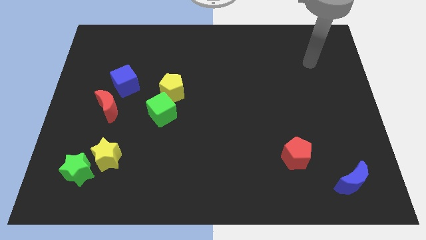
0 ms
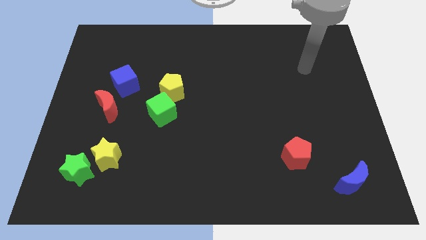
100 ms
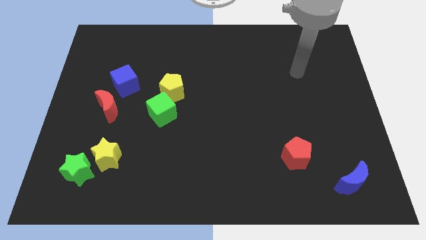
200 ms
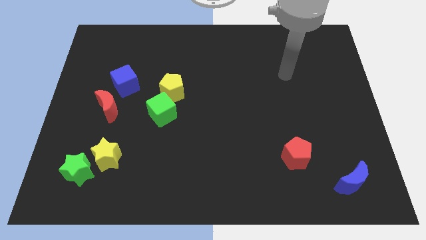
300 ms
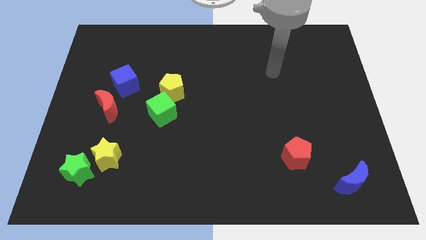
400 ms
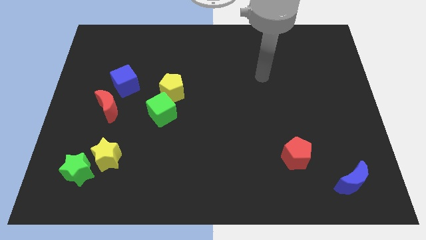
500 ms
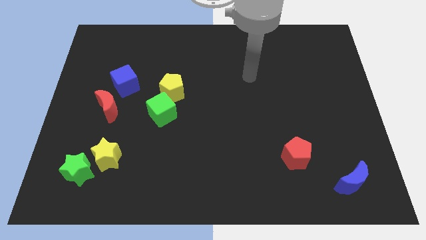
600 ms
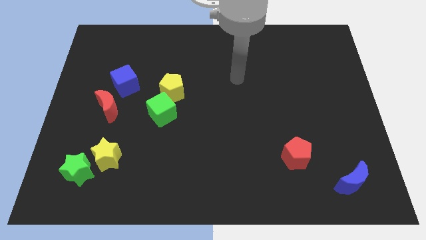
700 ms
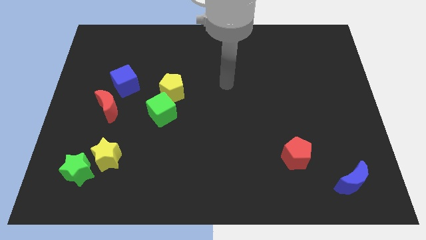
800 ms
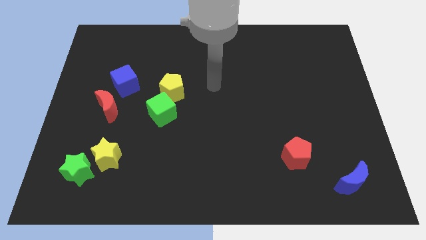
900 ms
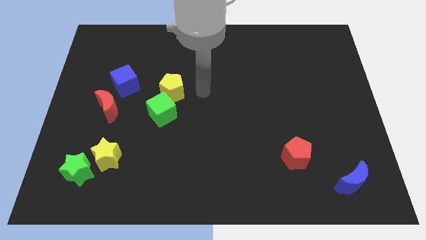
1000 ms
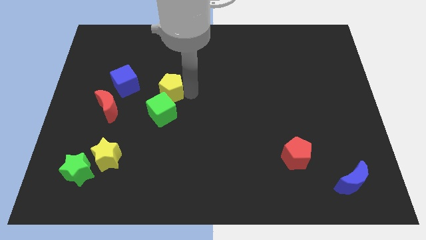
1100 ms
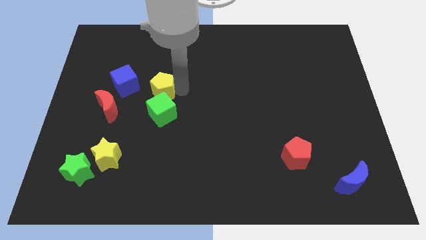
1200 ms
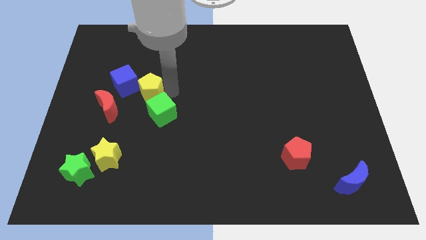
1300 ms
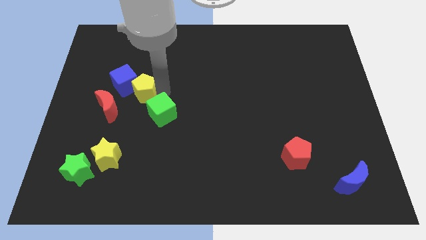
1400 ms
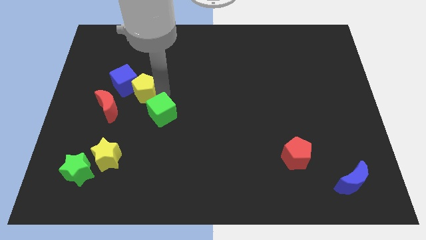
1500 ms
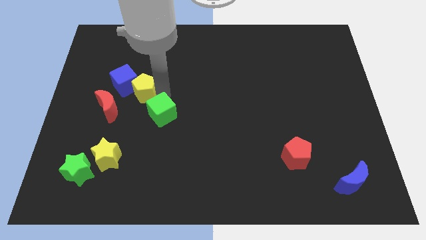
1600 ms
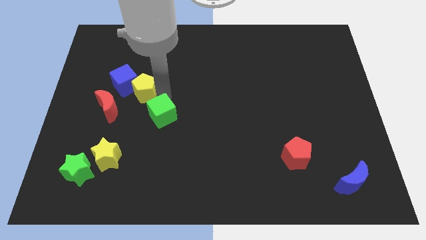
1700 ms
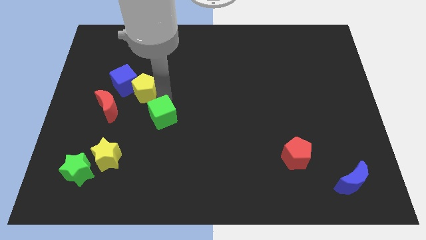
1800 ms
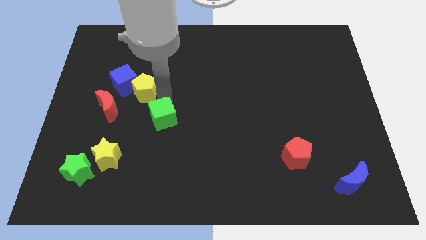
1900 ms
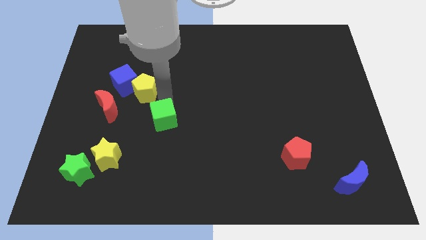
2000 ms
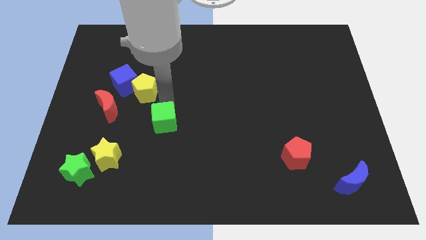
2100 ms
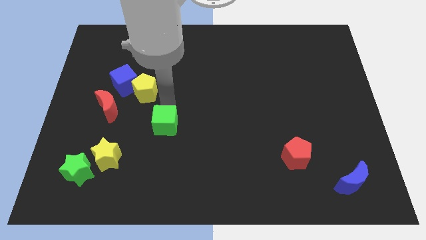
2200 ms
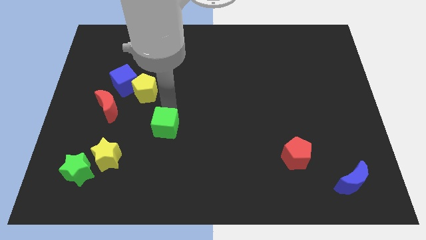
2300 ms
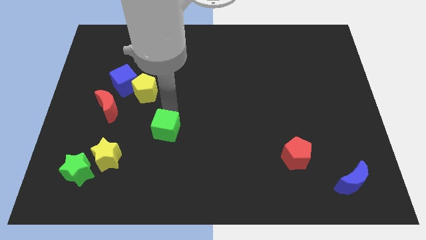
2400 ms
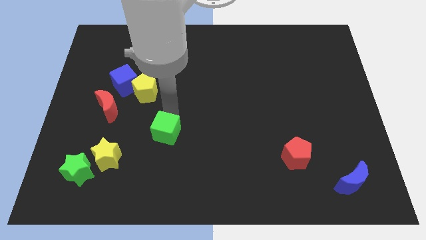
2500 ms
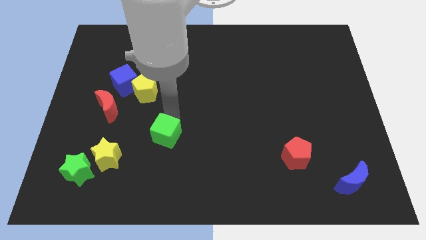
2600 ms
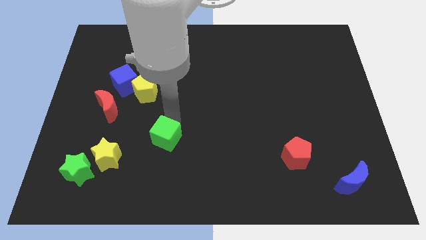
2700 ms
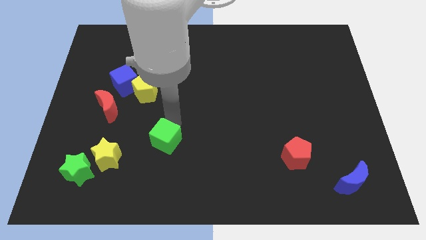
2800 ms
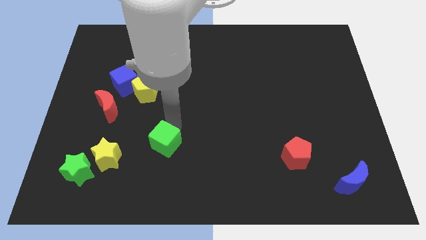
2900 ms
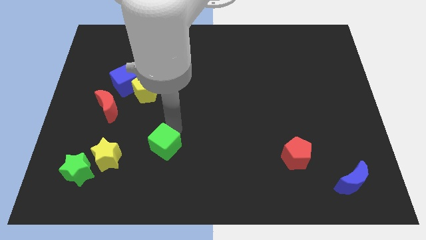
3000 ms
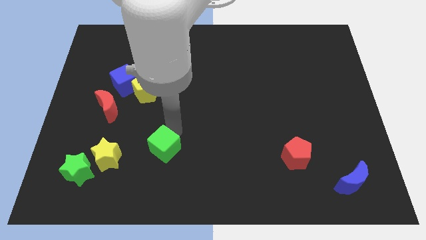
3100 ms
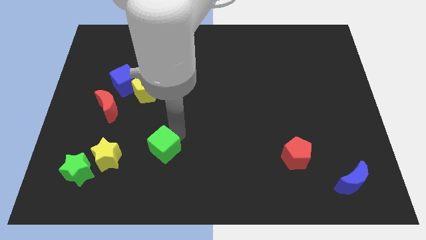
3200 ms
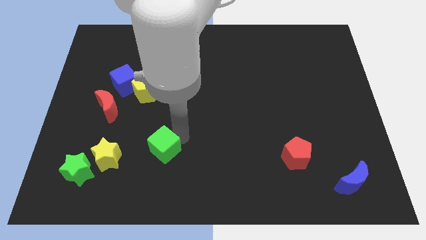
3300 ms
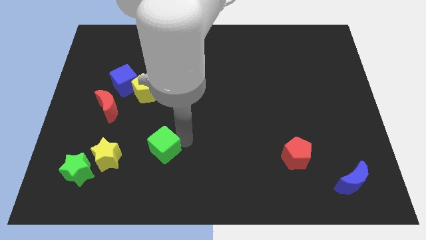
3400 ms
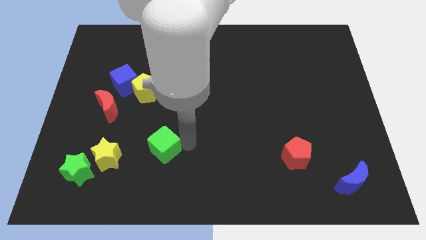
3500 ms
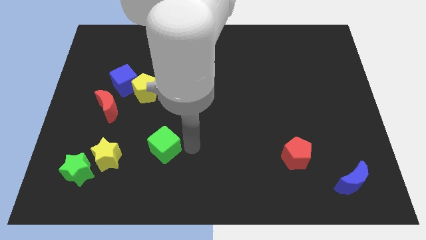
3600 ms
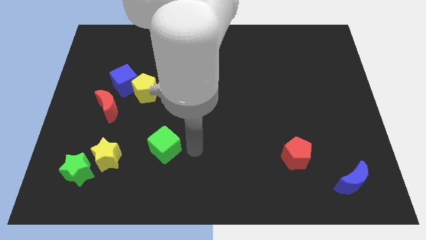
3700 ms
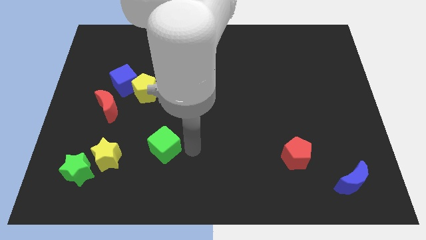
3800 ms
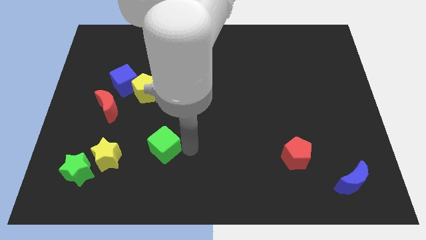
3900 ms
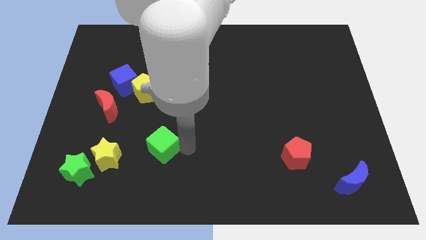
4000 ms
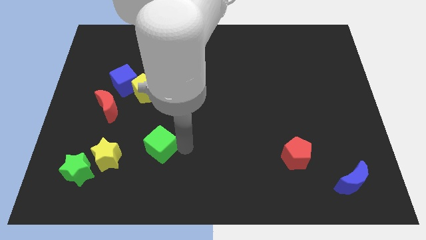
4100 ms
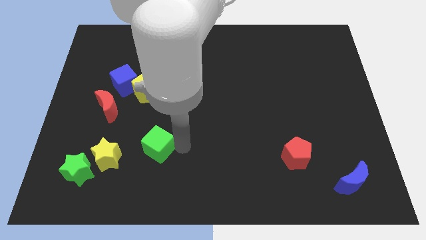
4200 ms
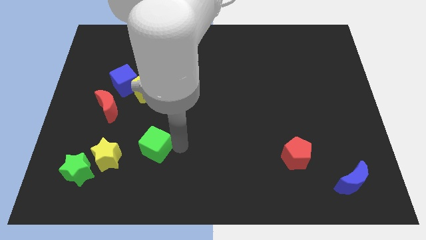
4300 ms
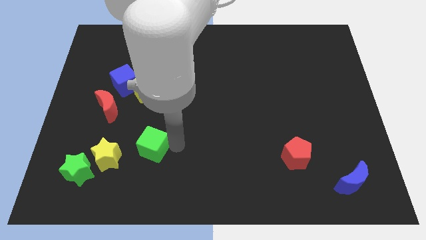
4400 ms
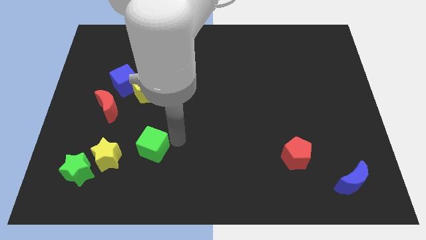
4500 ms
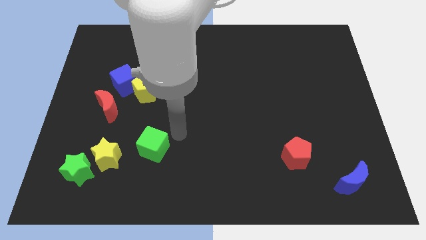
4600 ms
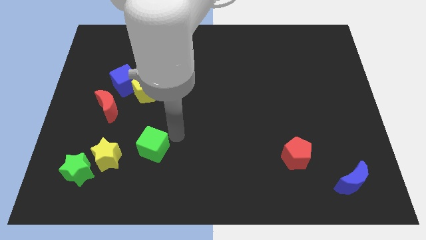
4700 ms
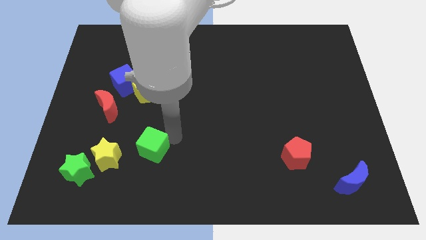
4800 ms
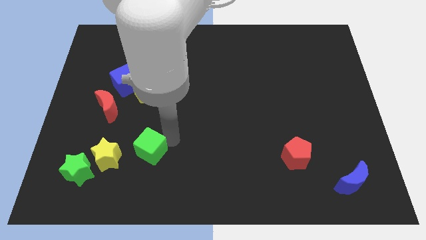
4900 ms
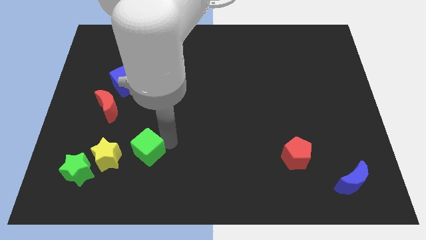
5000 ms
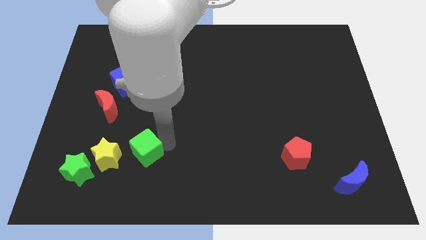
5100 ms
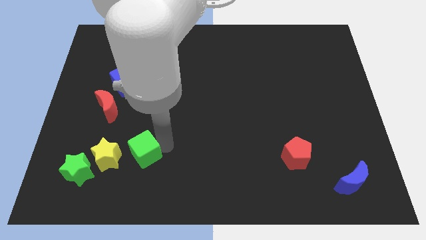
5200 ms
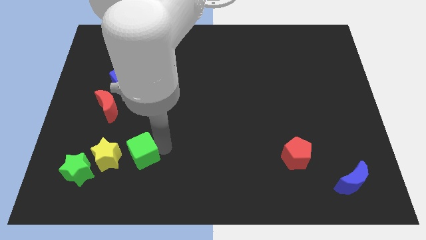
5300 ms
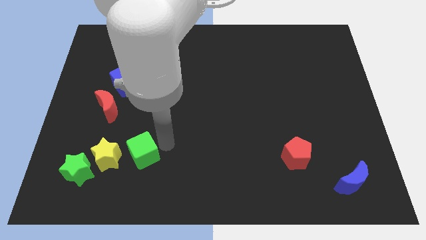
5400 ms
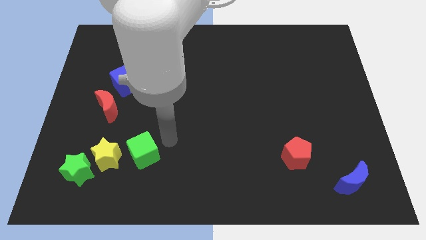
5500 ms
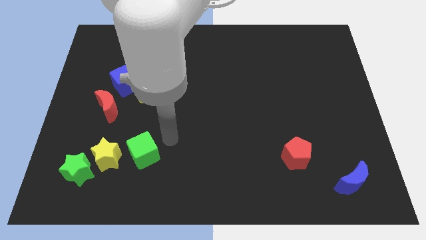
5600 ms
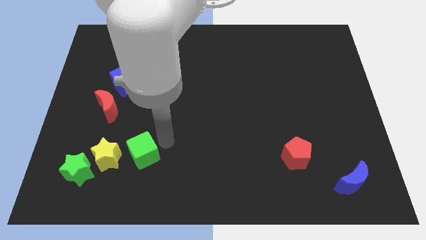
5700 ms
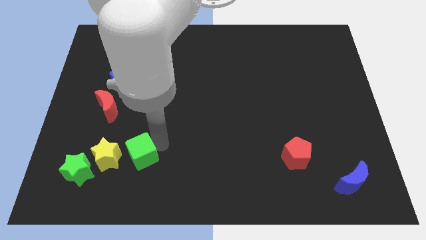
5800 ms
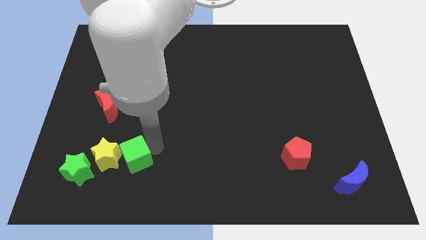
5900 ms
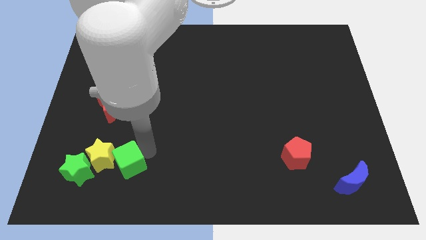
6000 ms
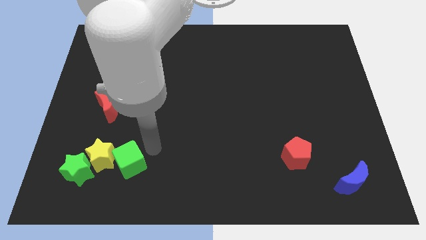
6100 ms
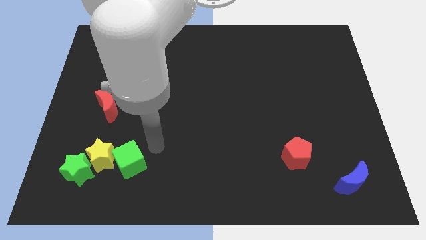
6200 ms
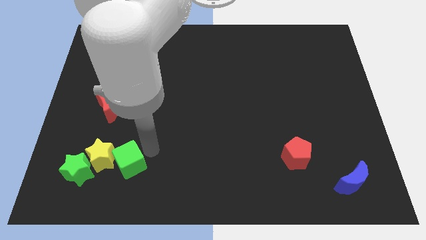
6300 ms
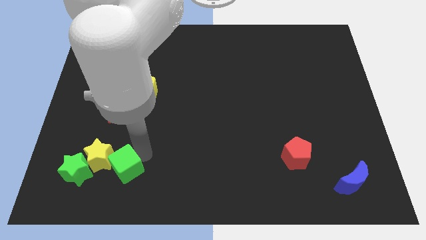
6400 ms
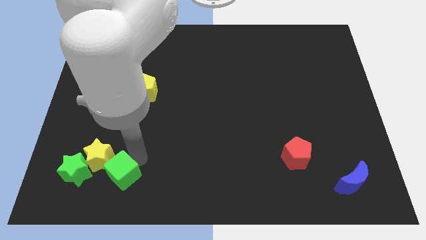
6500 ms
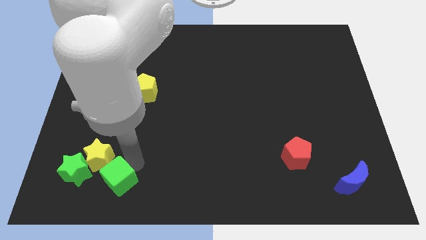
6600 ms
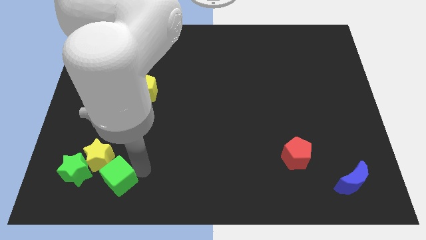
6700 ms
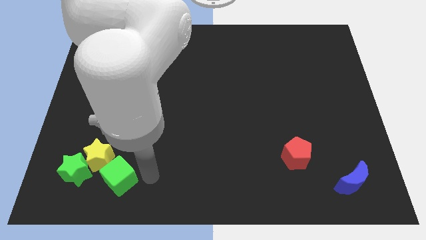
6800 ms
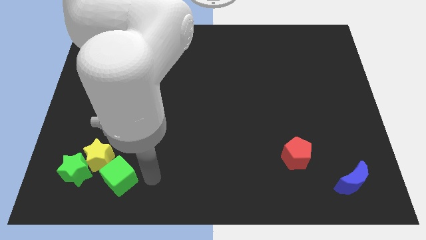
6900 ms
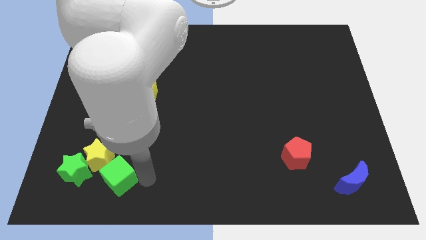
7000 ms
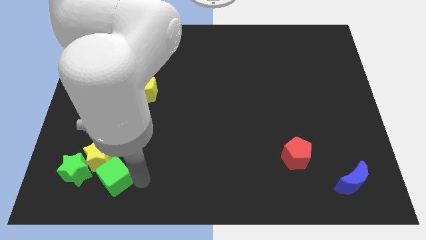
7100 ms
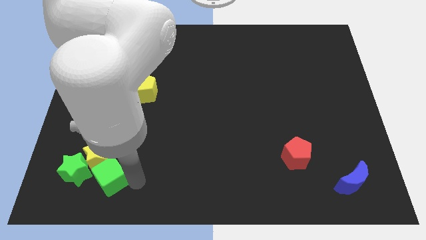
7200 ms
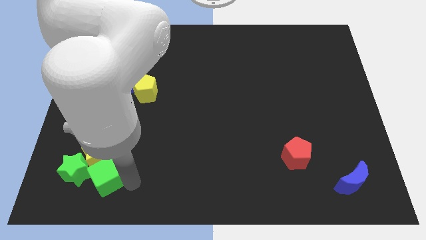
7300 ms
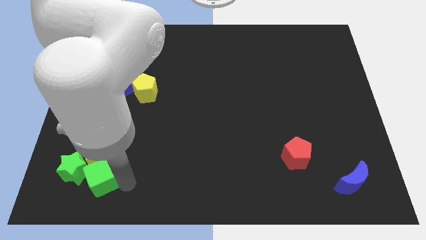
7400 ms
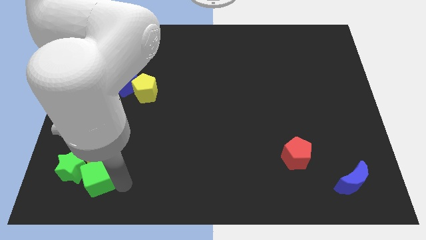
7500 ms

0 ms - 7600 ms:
slide the green cube to the bottom left side of the yellow star
